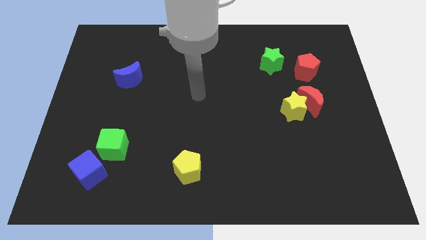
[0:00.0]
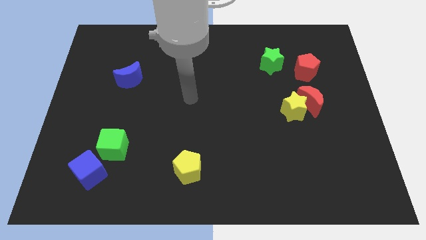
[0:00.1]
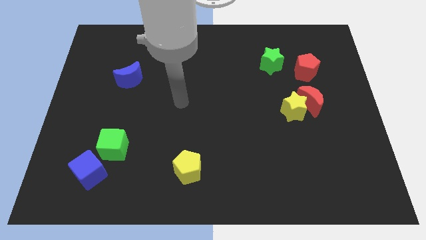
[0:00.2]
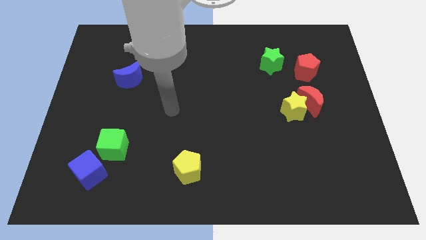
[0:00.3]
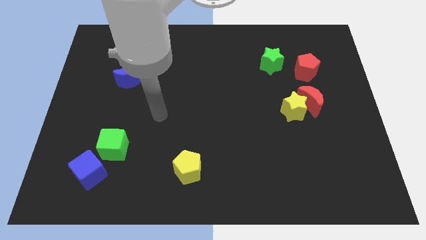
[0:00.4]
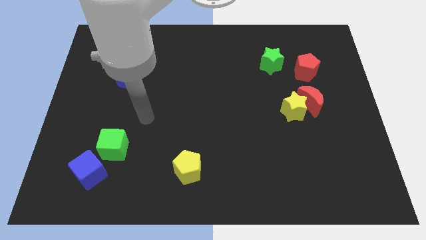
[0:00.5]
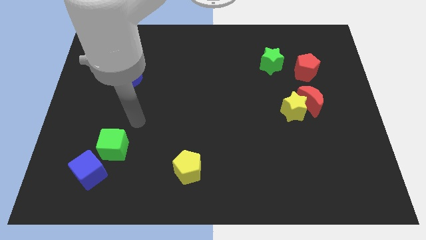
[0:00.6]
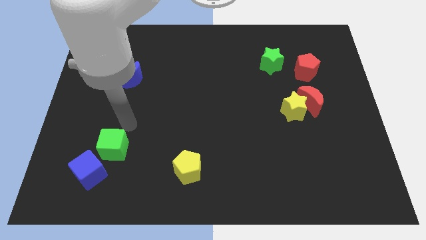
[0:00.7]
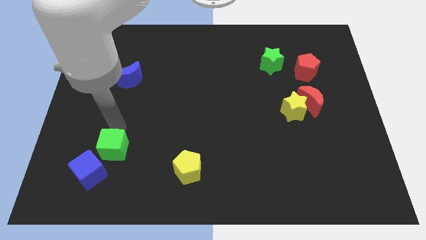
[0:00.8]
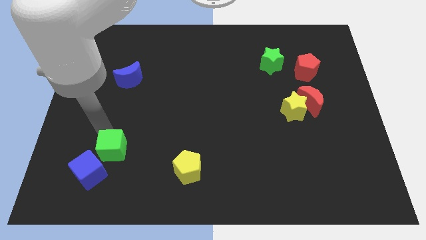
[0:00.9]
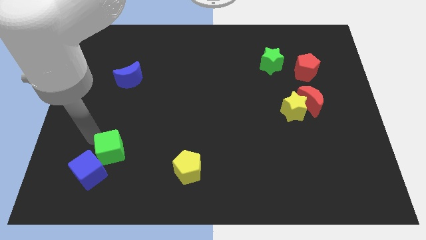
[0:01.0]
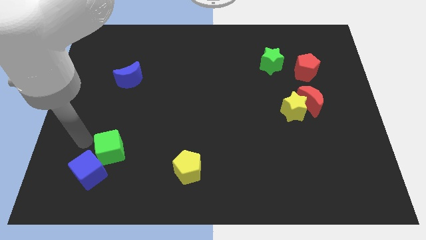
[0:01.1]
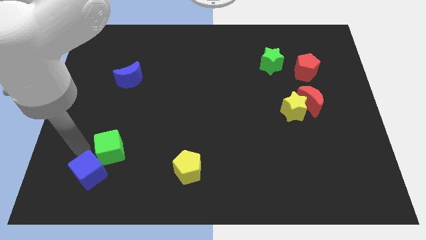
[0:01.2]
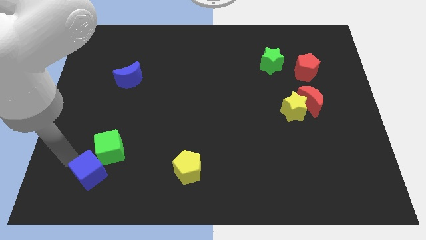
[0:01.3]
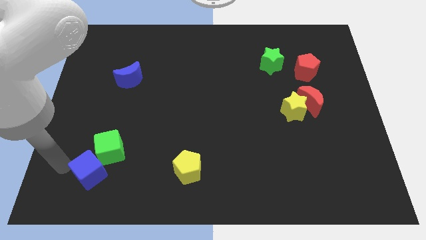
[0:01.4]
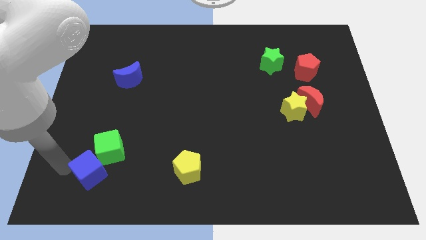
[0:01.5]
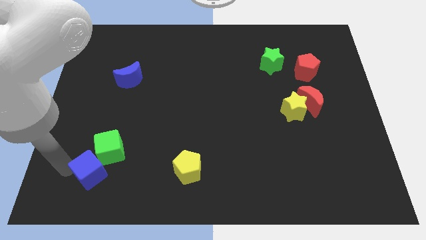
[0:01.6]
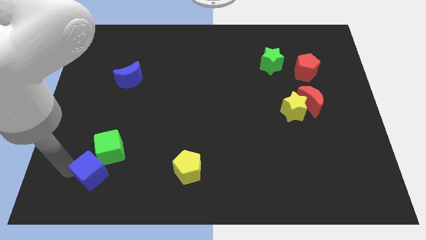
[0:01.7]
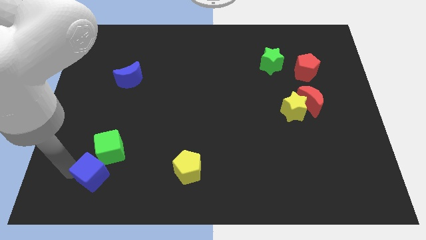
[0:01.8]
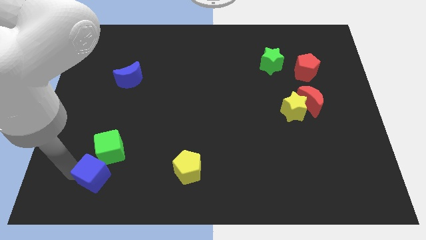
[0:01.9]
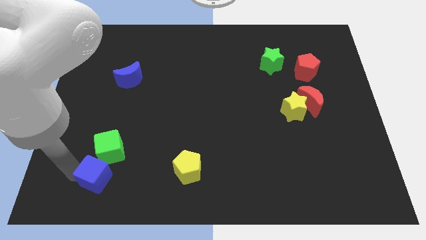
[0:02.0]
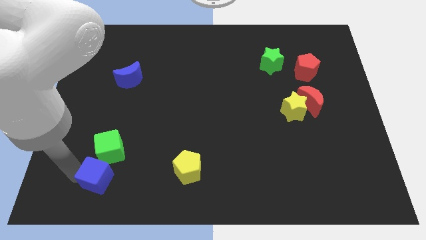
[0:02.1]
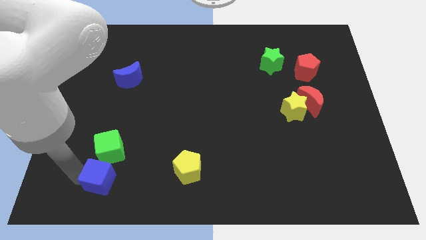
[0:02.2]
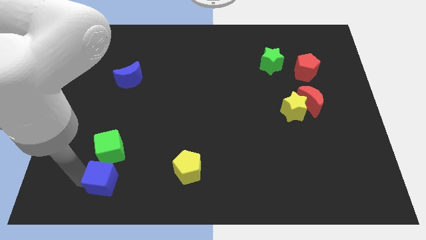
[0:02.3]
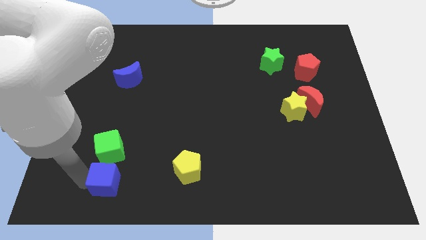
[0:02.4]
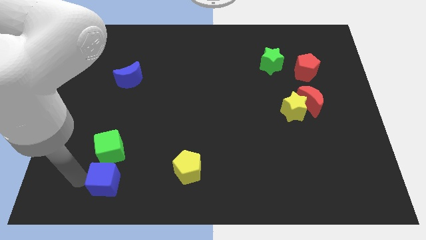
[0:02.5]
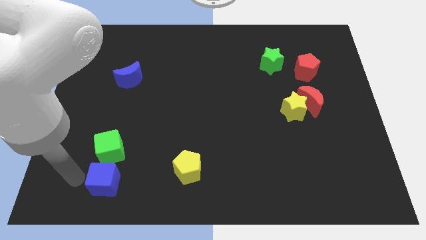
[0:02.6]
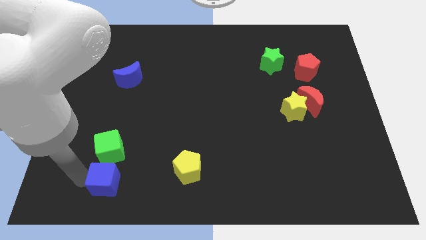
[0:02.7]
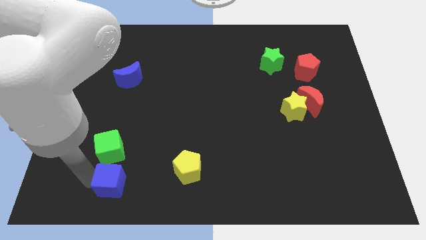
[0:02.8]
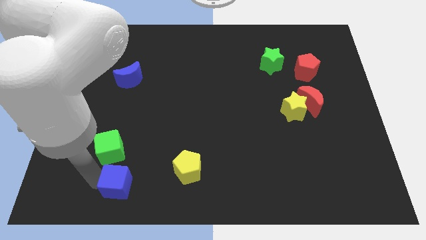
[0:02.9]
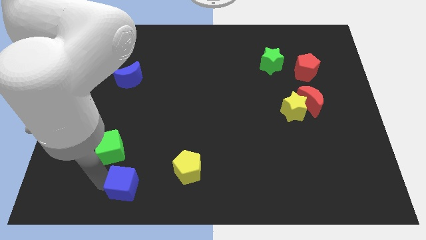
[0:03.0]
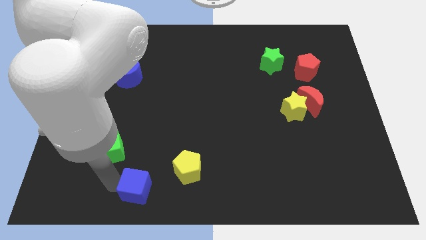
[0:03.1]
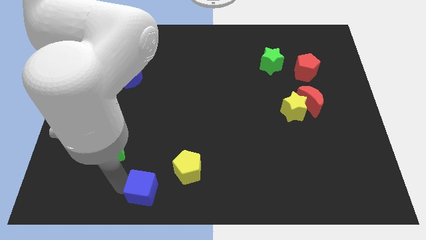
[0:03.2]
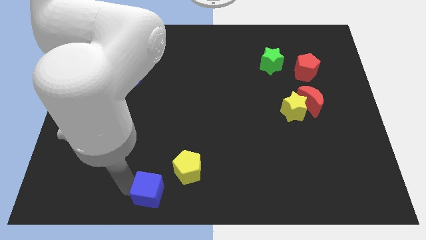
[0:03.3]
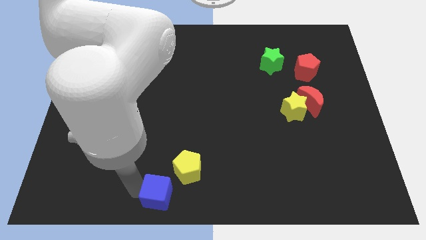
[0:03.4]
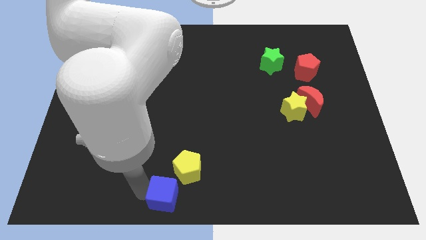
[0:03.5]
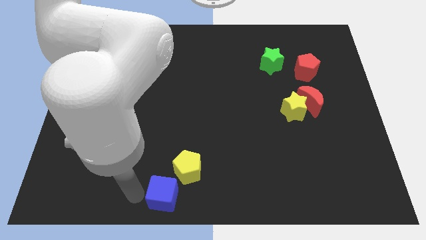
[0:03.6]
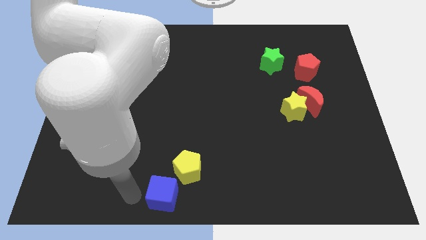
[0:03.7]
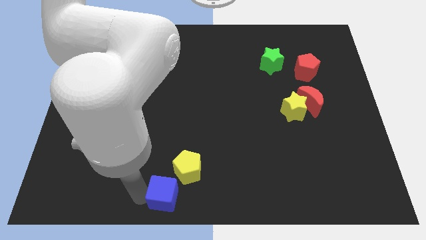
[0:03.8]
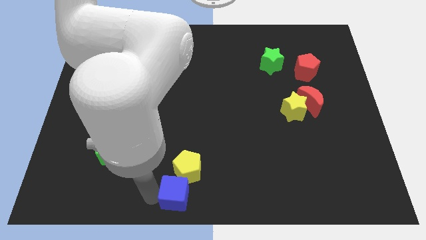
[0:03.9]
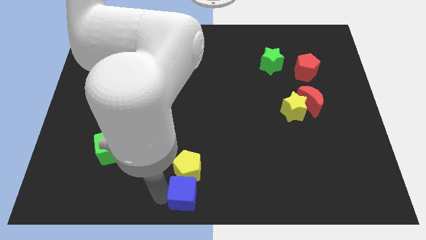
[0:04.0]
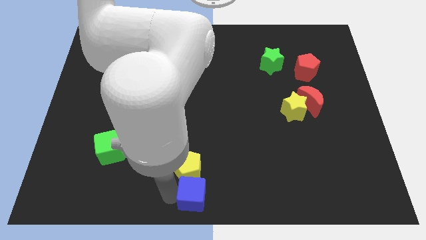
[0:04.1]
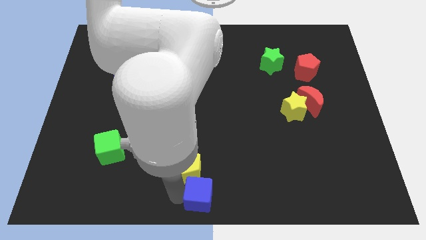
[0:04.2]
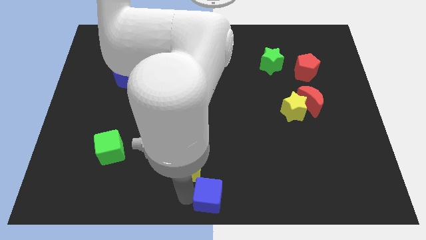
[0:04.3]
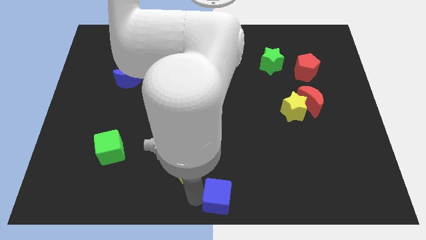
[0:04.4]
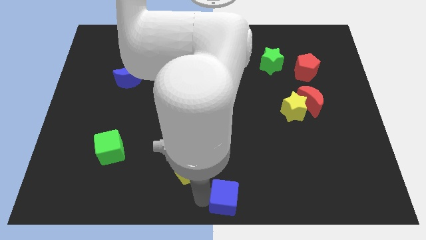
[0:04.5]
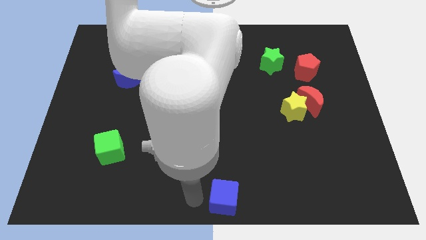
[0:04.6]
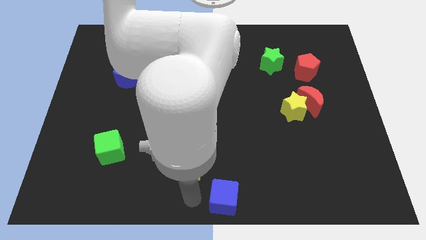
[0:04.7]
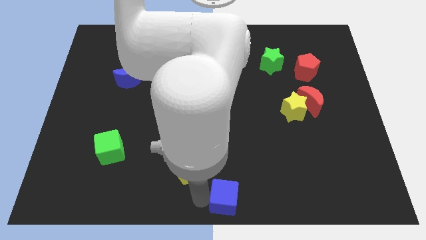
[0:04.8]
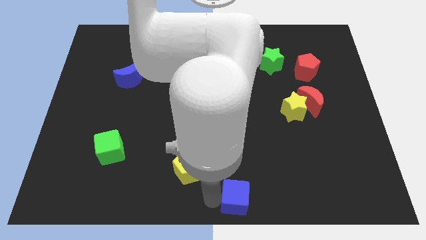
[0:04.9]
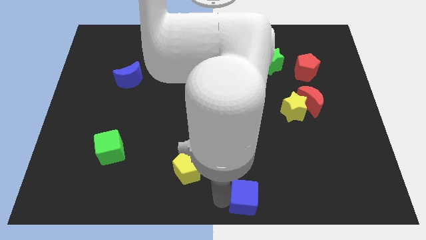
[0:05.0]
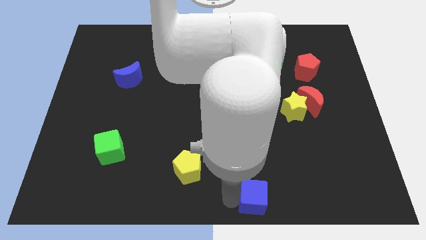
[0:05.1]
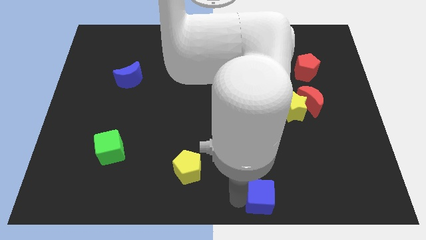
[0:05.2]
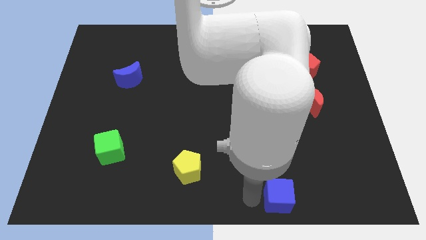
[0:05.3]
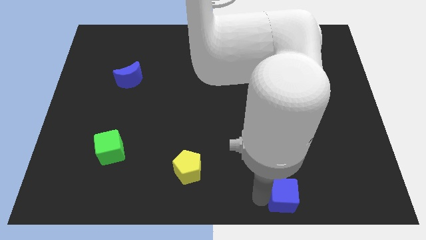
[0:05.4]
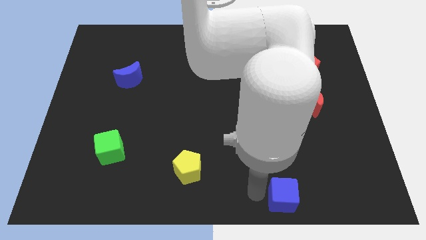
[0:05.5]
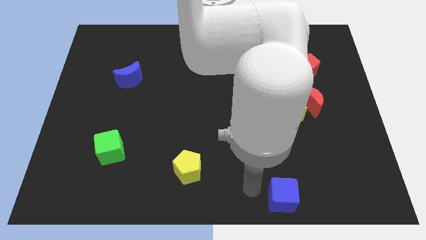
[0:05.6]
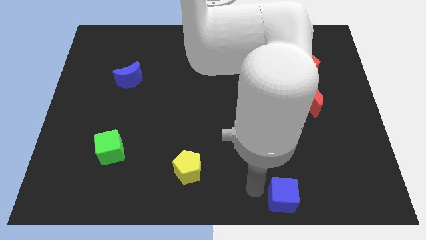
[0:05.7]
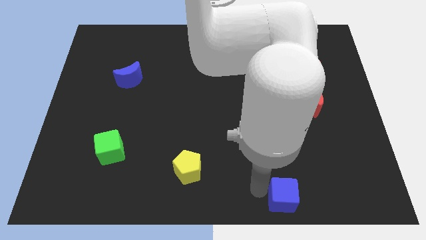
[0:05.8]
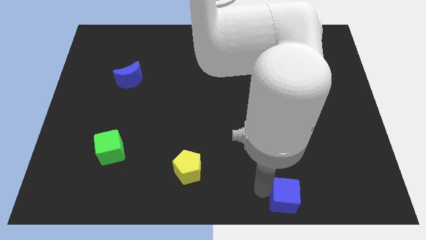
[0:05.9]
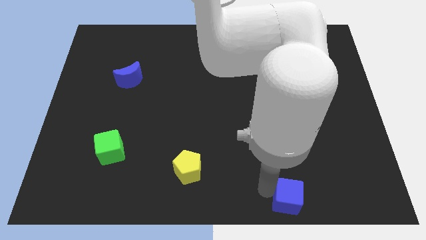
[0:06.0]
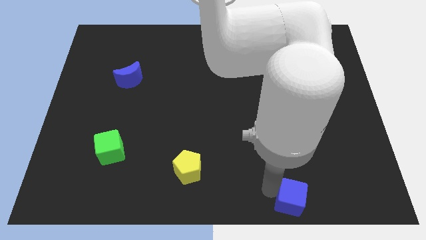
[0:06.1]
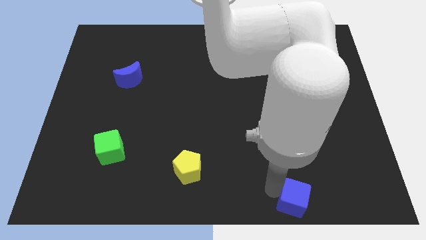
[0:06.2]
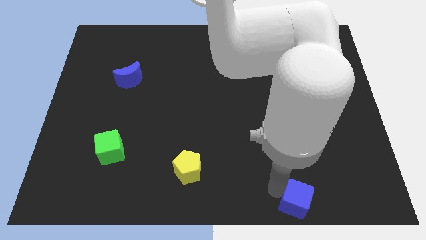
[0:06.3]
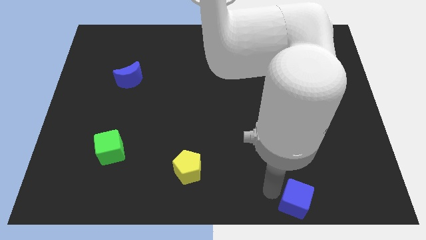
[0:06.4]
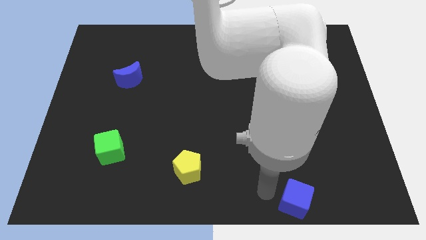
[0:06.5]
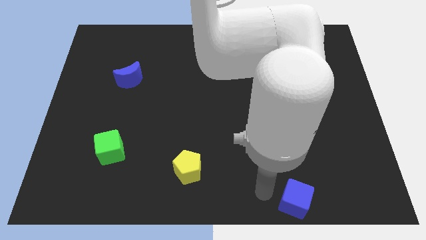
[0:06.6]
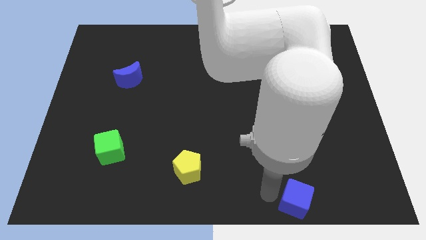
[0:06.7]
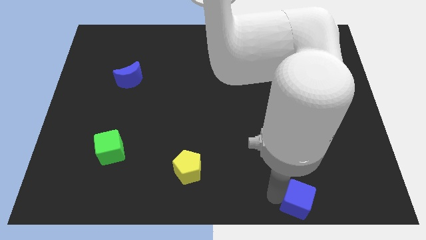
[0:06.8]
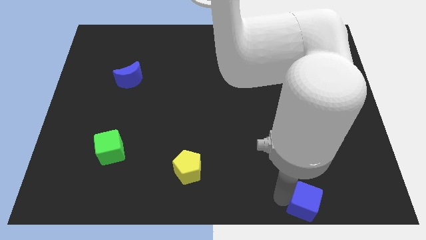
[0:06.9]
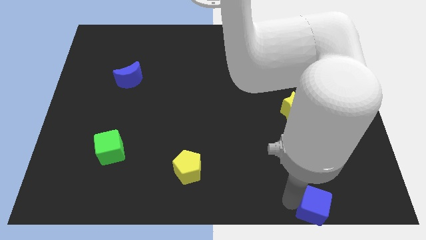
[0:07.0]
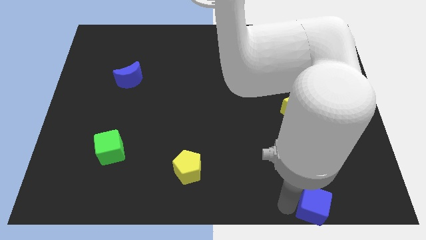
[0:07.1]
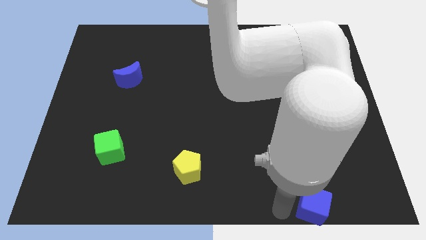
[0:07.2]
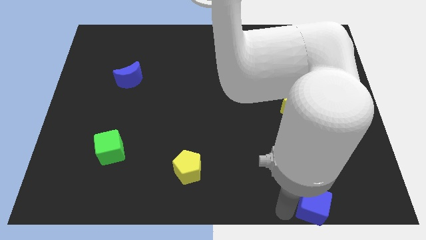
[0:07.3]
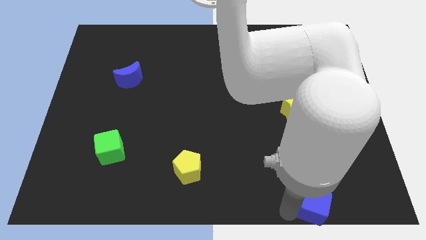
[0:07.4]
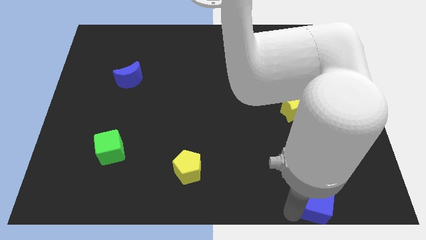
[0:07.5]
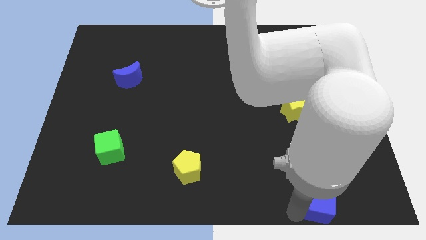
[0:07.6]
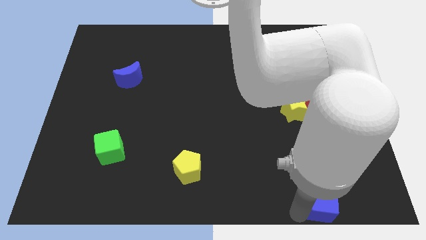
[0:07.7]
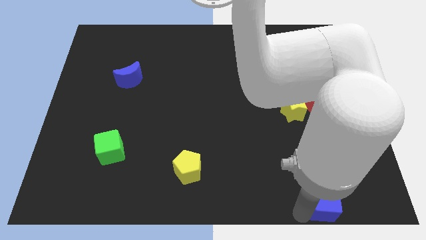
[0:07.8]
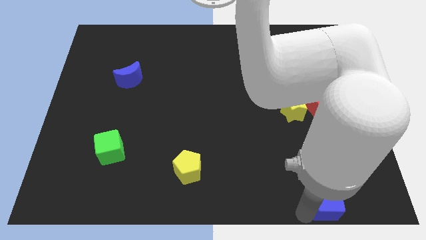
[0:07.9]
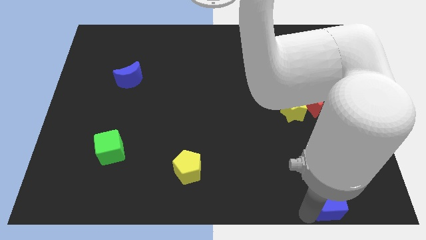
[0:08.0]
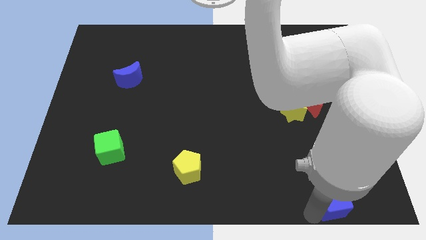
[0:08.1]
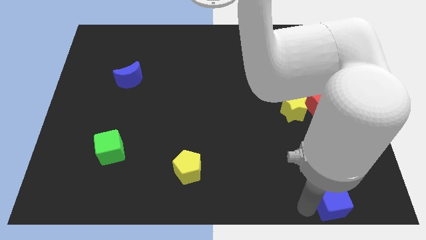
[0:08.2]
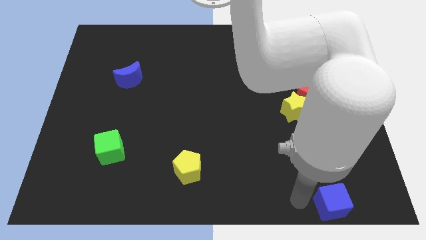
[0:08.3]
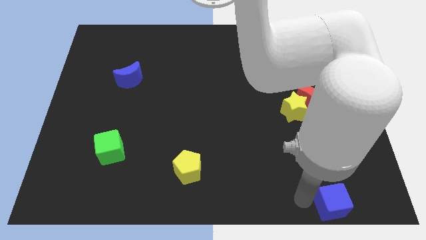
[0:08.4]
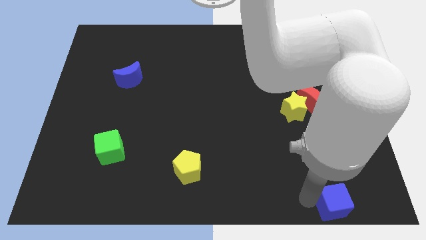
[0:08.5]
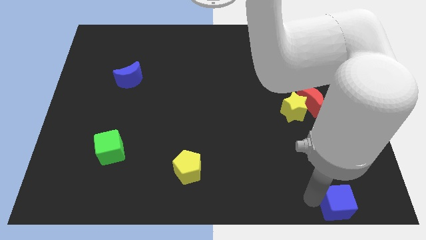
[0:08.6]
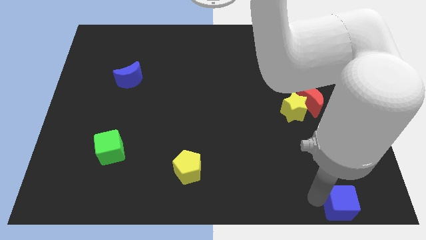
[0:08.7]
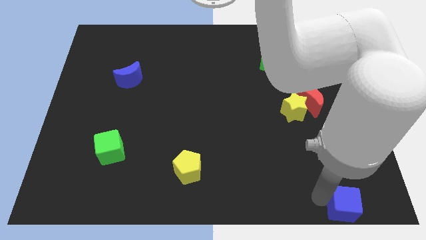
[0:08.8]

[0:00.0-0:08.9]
slide the blue cube to the bottom right corner
